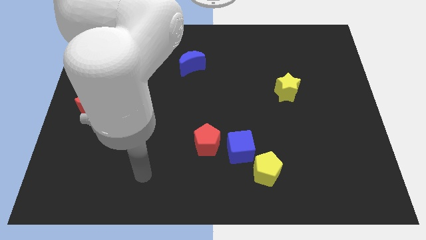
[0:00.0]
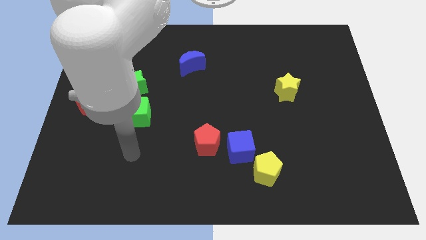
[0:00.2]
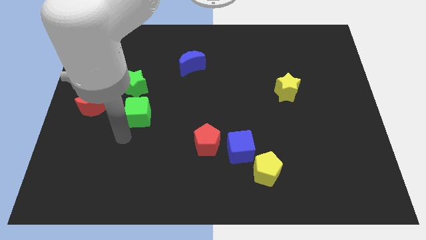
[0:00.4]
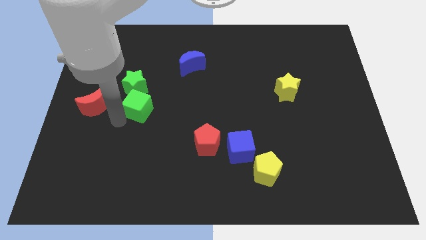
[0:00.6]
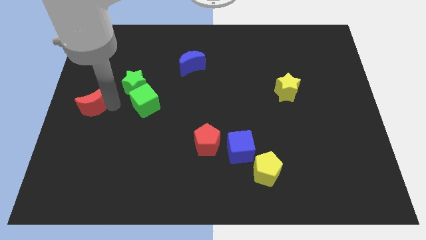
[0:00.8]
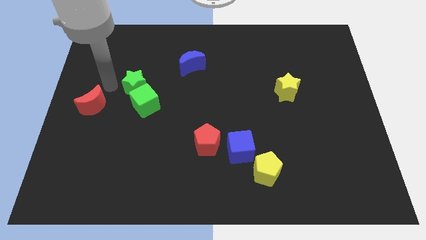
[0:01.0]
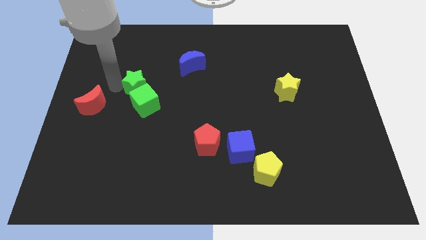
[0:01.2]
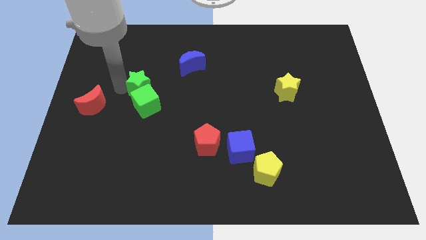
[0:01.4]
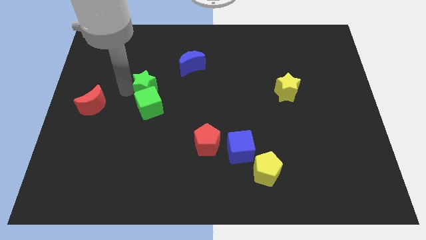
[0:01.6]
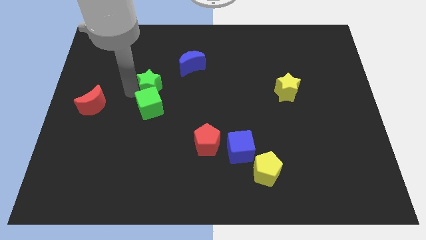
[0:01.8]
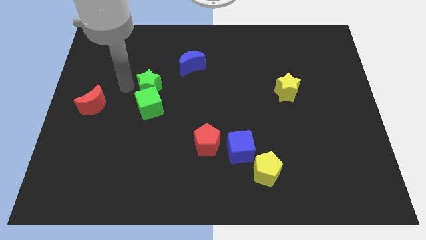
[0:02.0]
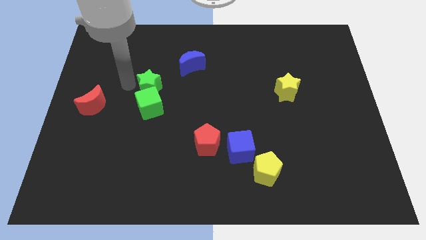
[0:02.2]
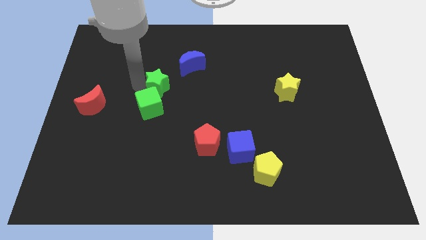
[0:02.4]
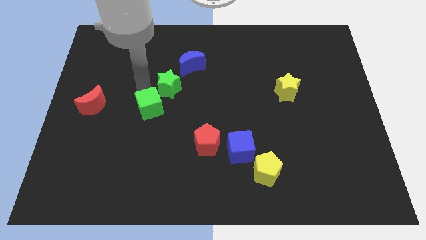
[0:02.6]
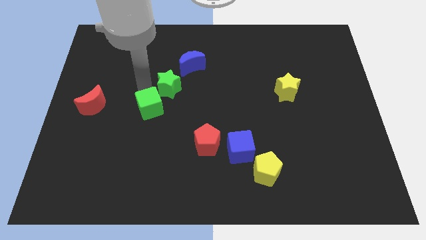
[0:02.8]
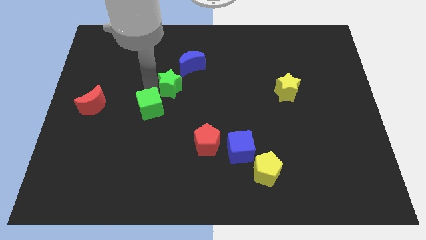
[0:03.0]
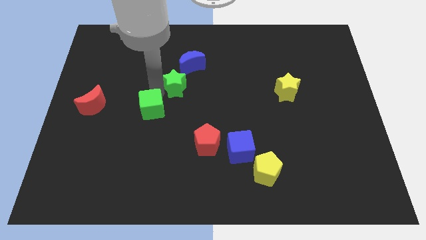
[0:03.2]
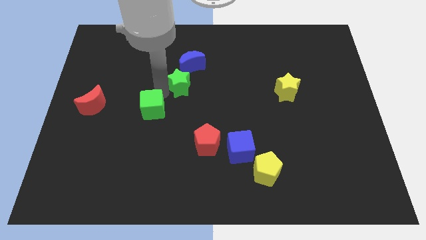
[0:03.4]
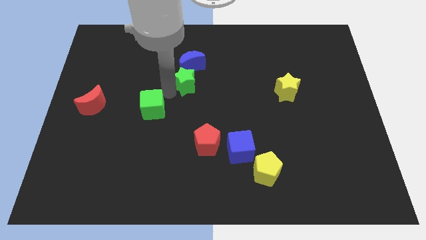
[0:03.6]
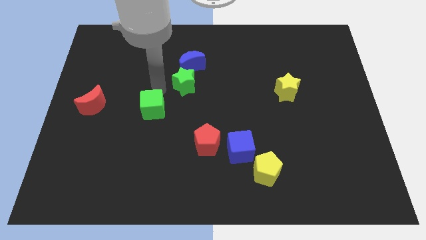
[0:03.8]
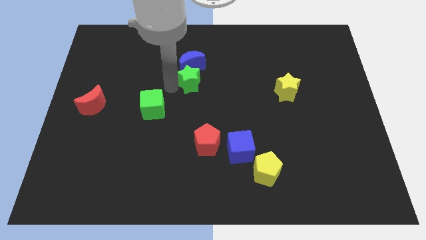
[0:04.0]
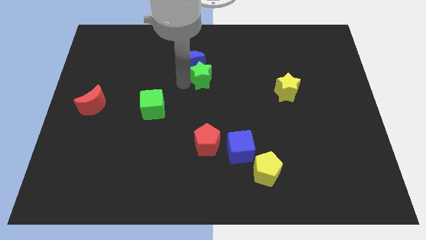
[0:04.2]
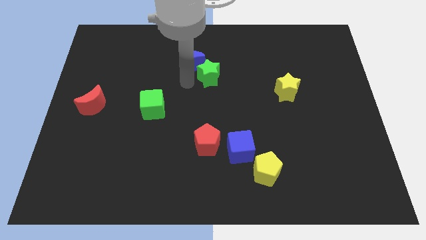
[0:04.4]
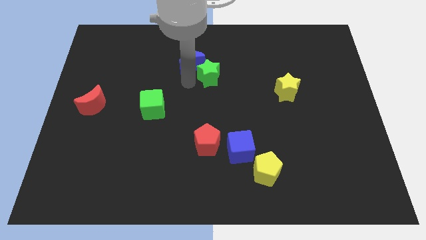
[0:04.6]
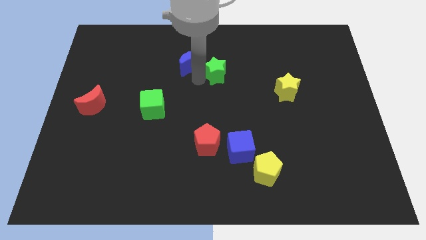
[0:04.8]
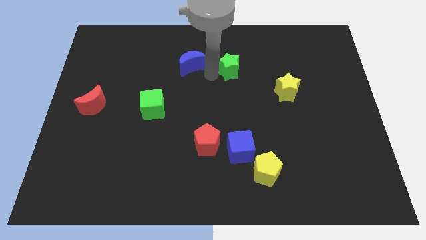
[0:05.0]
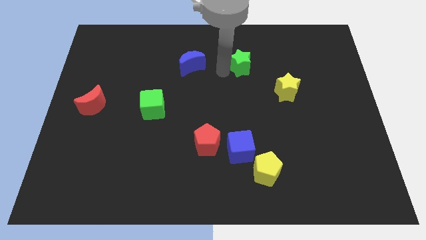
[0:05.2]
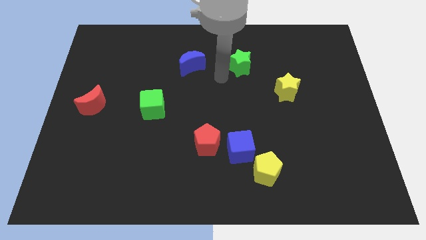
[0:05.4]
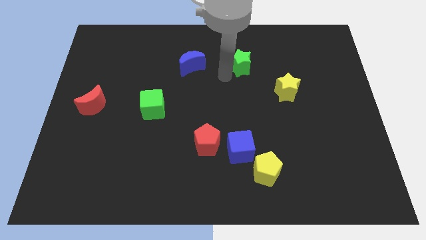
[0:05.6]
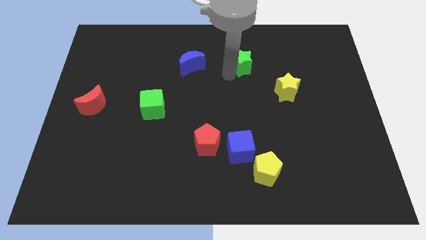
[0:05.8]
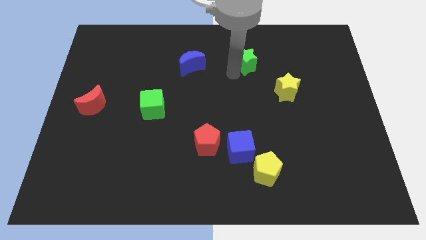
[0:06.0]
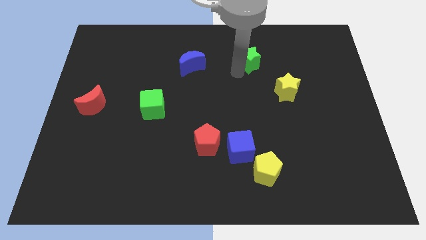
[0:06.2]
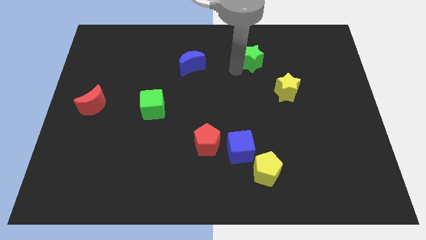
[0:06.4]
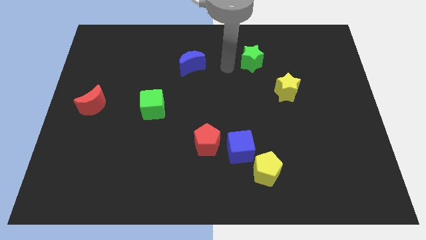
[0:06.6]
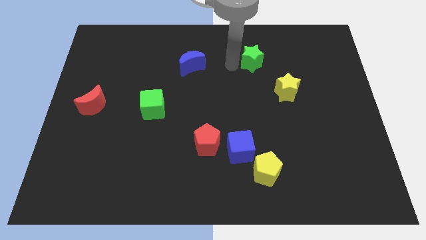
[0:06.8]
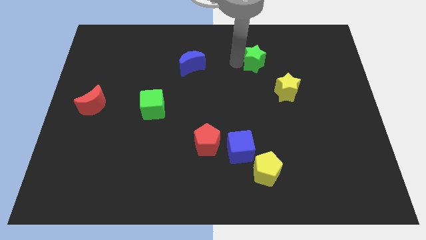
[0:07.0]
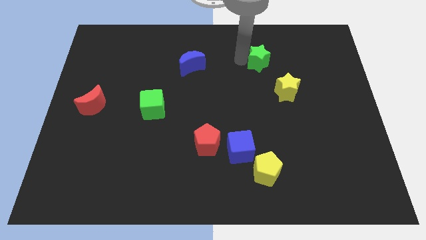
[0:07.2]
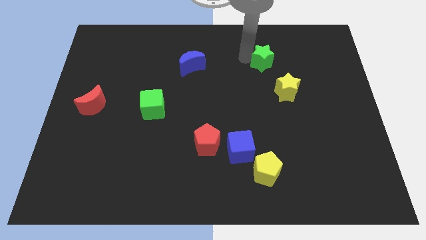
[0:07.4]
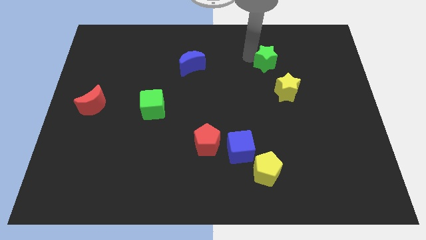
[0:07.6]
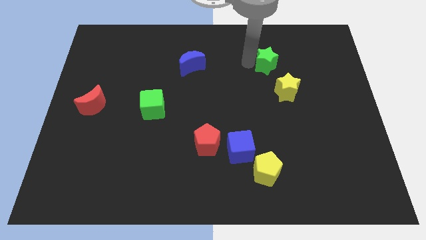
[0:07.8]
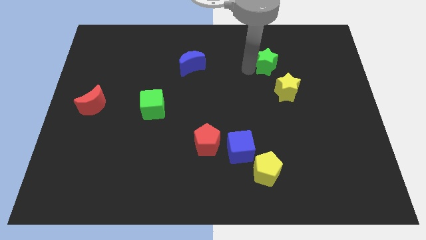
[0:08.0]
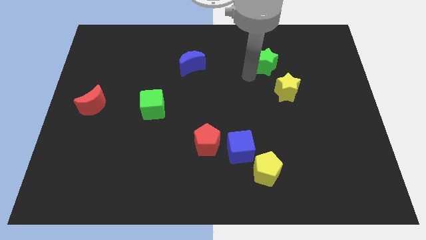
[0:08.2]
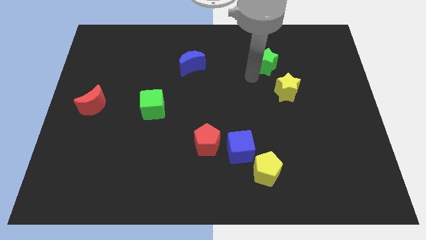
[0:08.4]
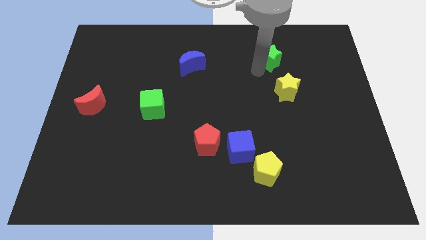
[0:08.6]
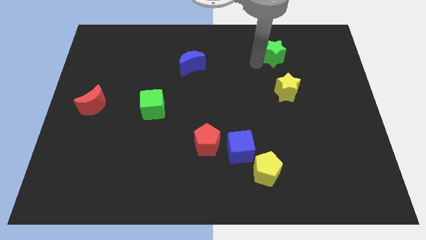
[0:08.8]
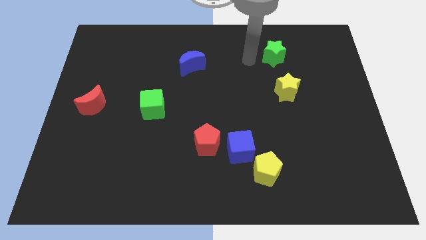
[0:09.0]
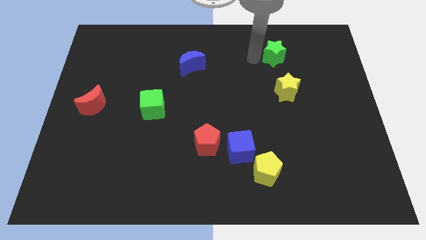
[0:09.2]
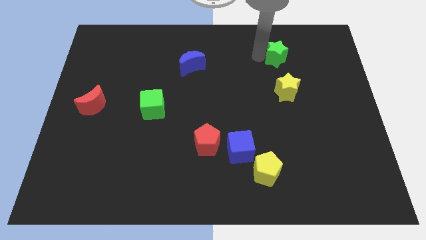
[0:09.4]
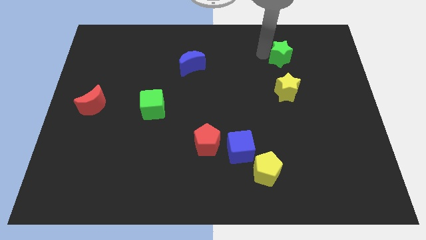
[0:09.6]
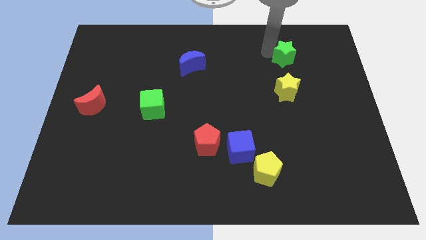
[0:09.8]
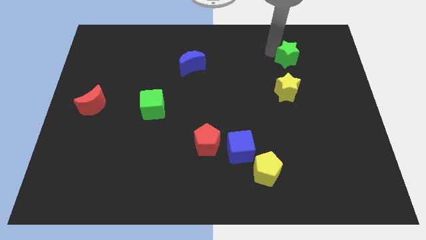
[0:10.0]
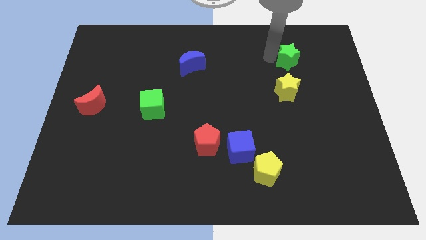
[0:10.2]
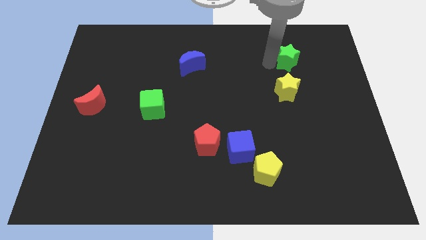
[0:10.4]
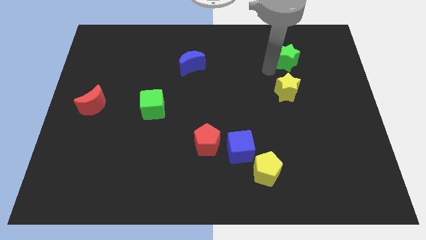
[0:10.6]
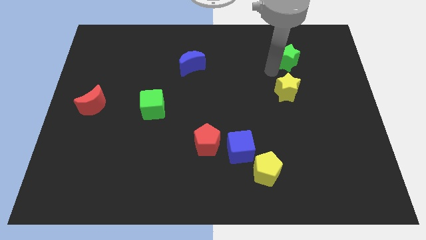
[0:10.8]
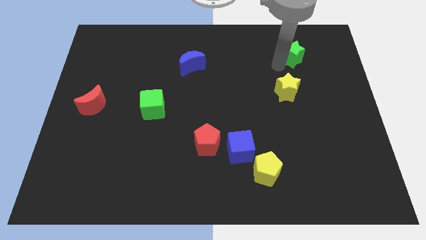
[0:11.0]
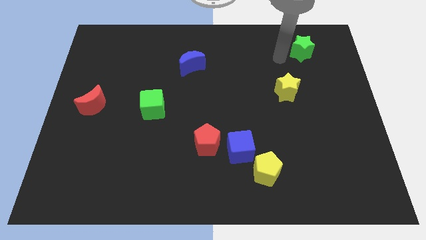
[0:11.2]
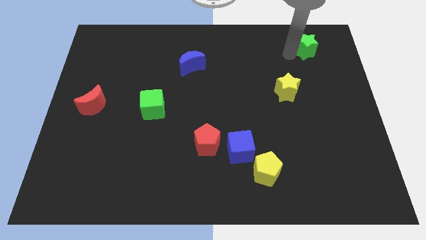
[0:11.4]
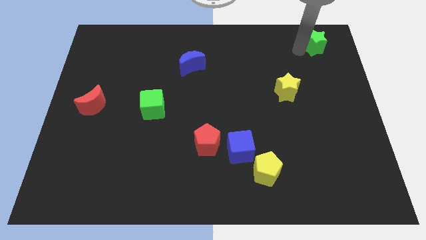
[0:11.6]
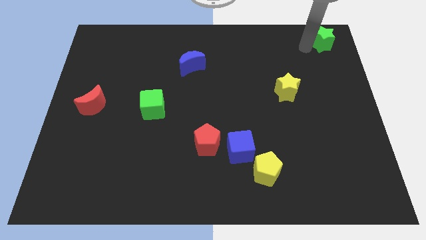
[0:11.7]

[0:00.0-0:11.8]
slide the green star to the top right
